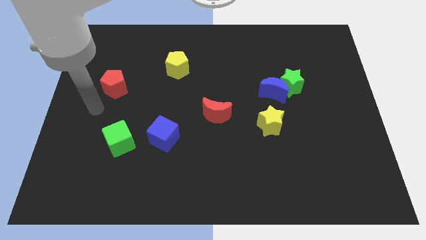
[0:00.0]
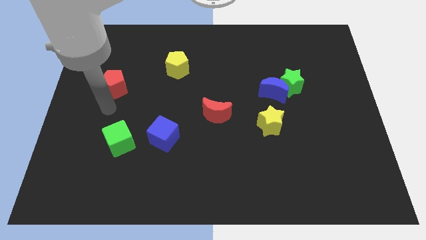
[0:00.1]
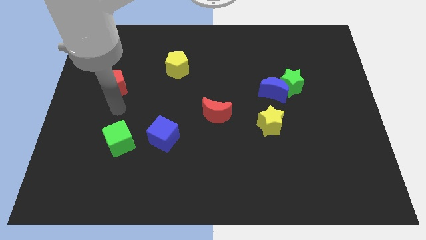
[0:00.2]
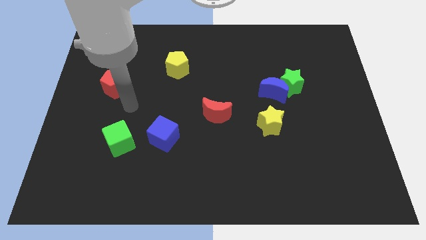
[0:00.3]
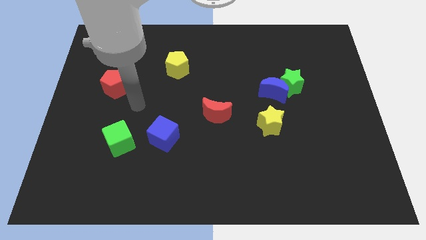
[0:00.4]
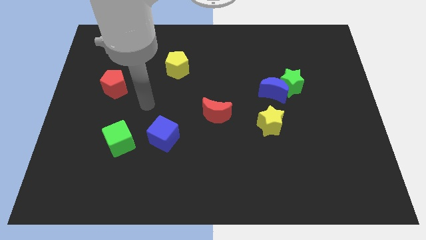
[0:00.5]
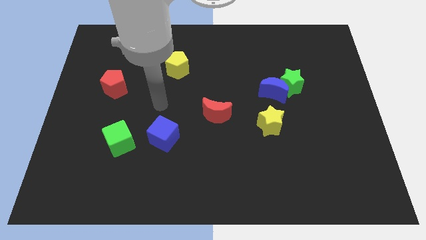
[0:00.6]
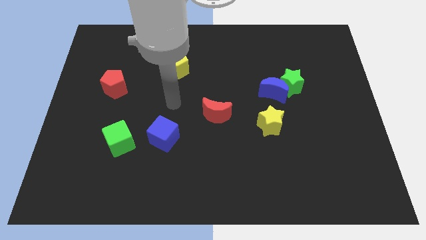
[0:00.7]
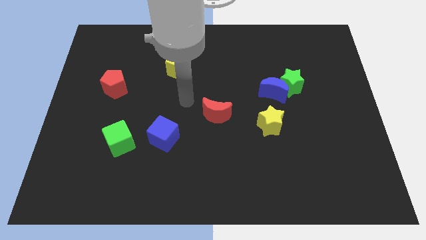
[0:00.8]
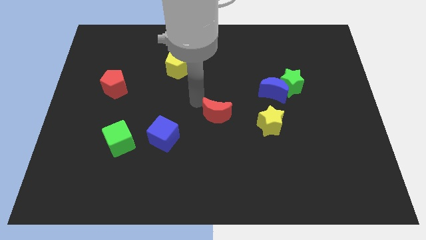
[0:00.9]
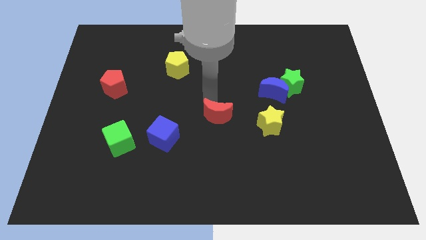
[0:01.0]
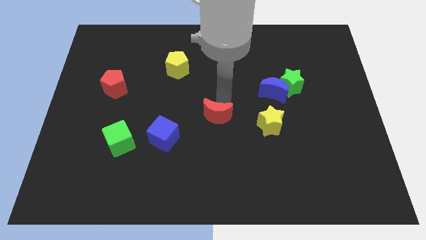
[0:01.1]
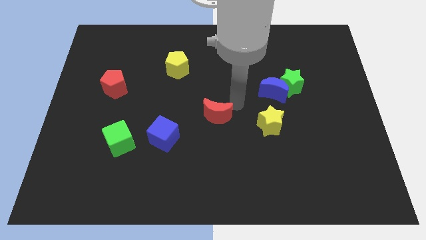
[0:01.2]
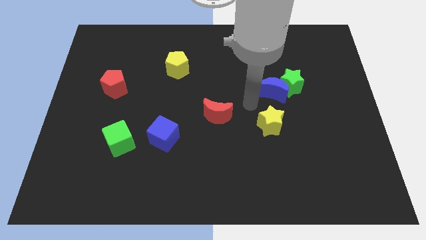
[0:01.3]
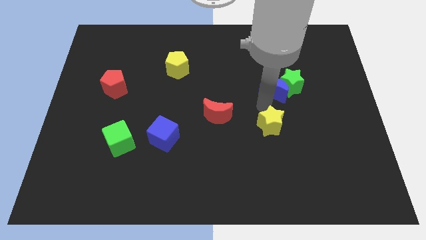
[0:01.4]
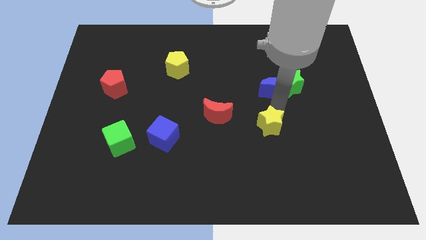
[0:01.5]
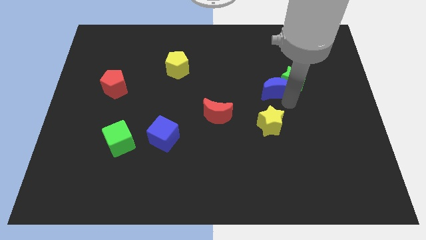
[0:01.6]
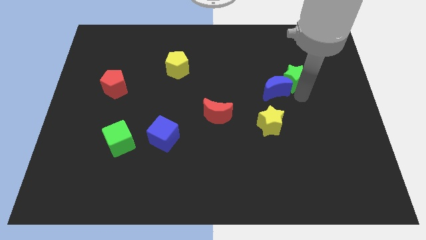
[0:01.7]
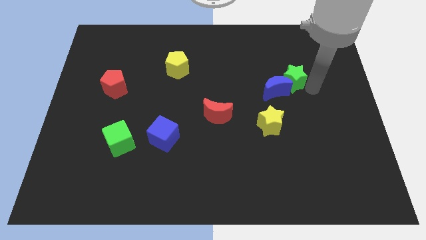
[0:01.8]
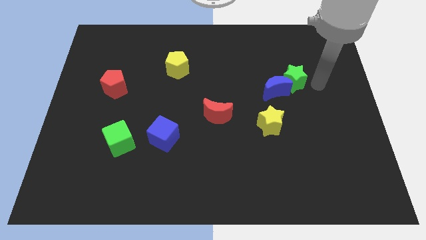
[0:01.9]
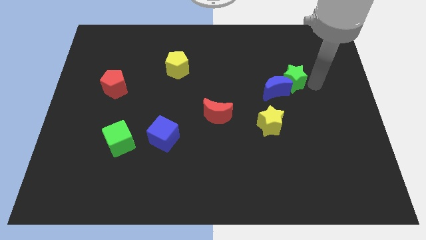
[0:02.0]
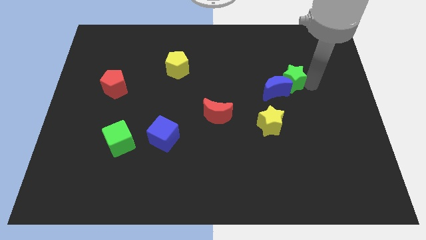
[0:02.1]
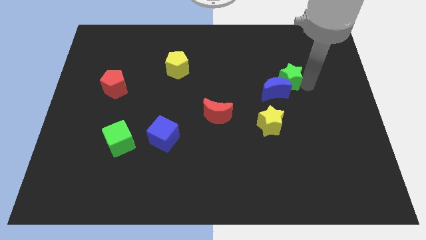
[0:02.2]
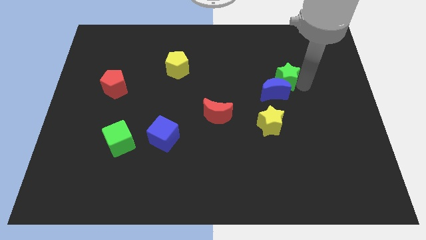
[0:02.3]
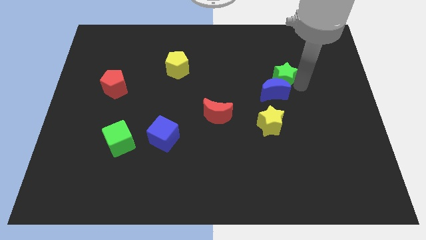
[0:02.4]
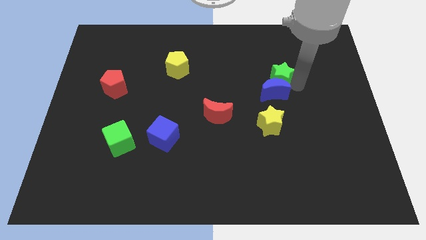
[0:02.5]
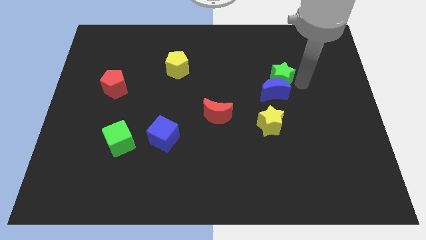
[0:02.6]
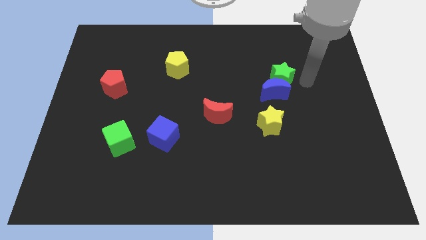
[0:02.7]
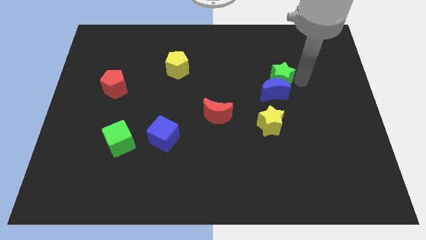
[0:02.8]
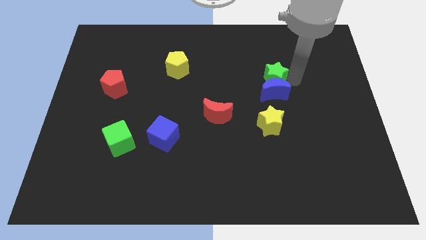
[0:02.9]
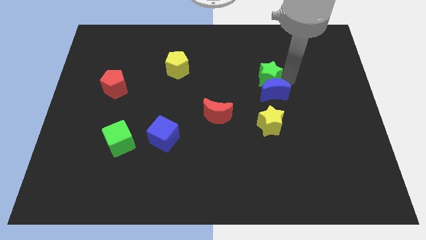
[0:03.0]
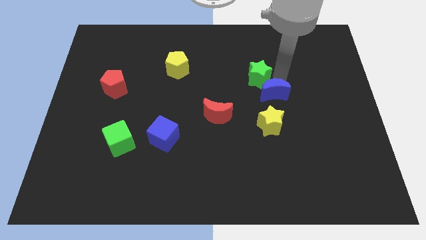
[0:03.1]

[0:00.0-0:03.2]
push the green star a bit to the left

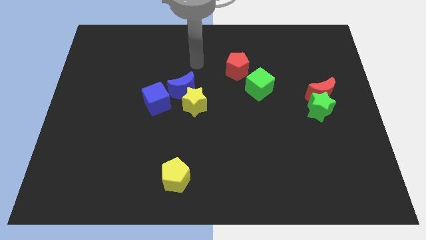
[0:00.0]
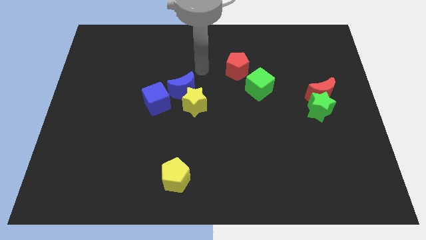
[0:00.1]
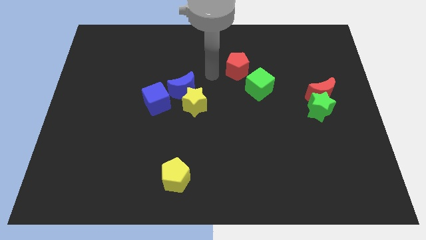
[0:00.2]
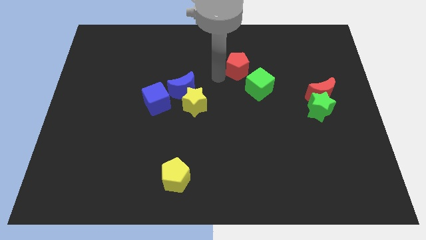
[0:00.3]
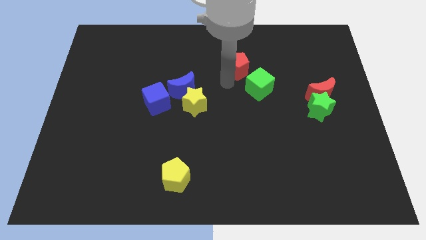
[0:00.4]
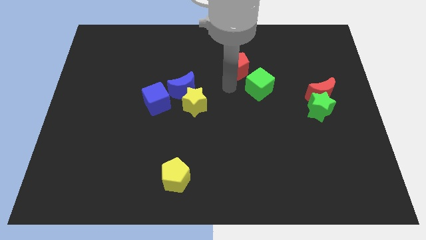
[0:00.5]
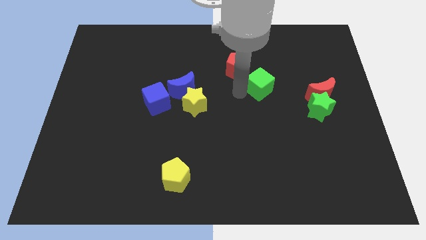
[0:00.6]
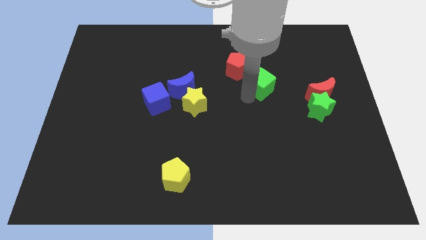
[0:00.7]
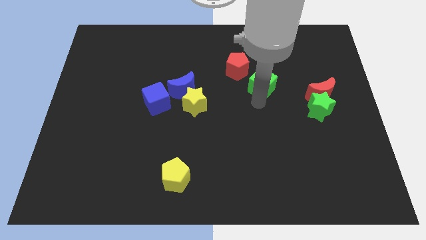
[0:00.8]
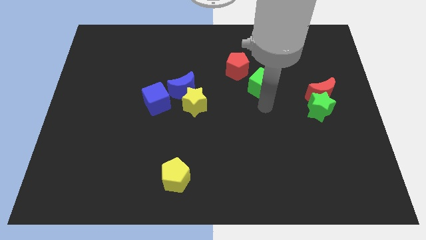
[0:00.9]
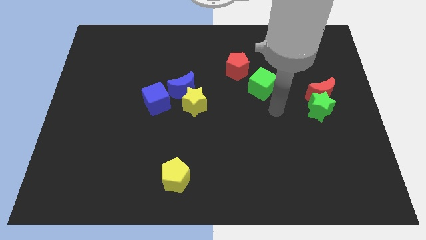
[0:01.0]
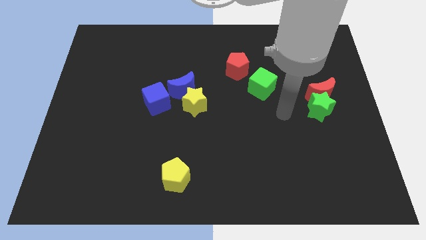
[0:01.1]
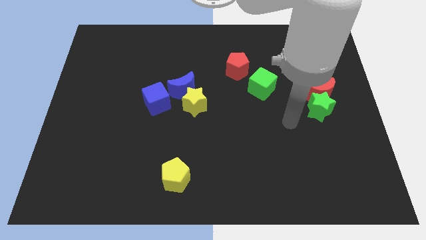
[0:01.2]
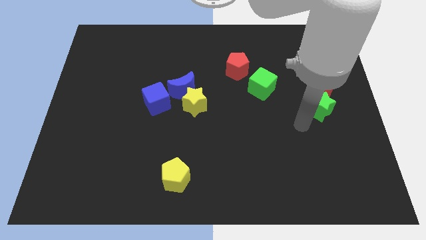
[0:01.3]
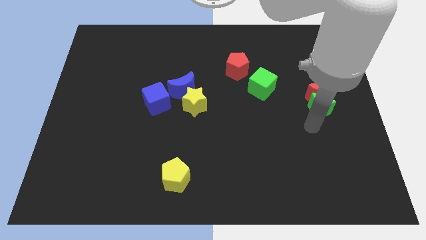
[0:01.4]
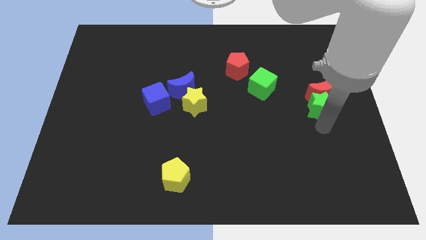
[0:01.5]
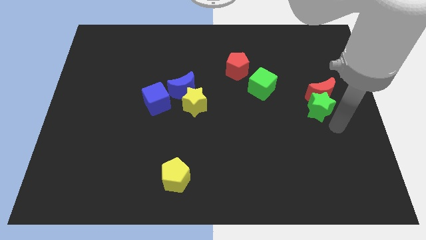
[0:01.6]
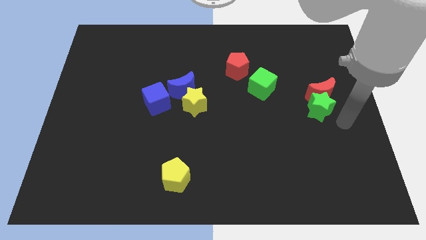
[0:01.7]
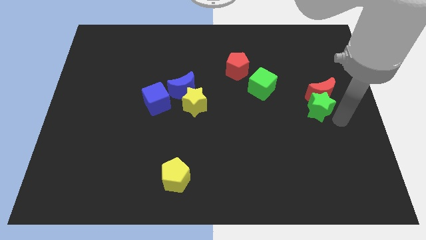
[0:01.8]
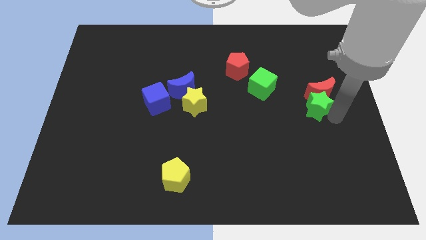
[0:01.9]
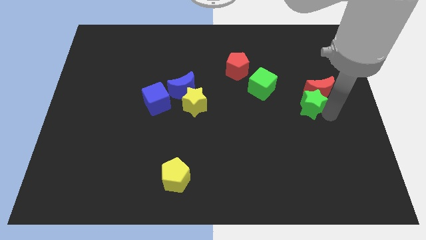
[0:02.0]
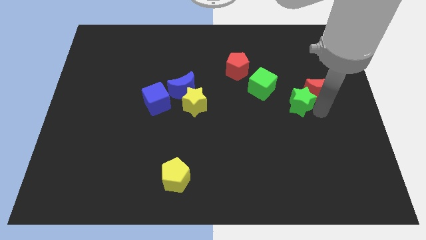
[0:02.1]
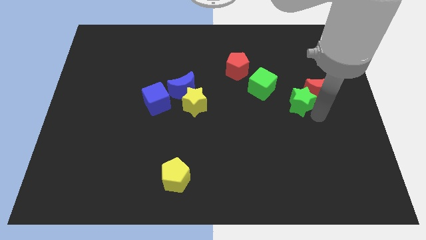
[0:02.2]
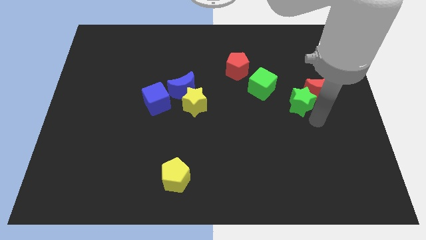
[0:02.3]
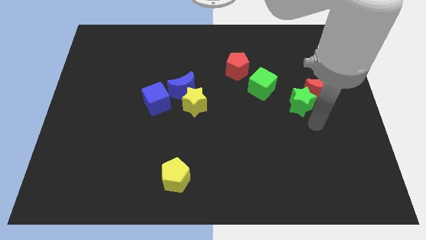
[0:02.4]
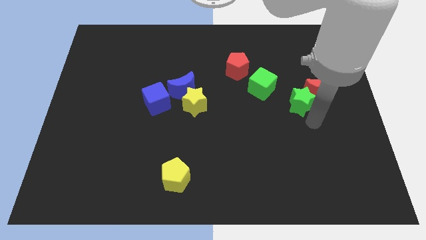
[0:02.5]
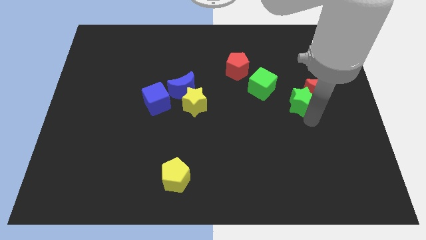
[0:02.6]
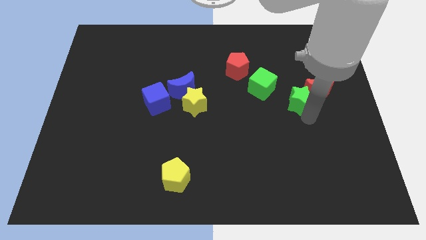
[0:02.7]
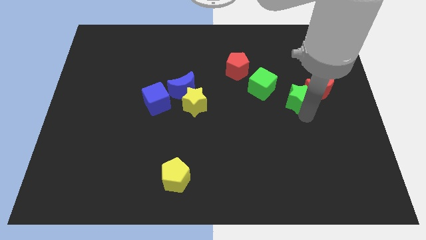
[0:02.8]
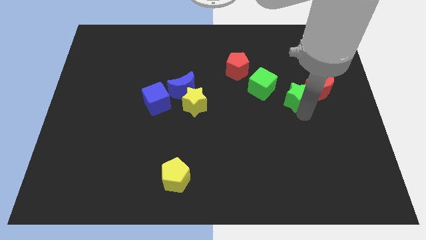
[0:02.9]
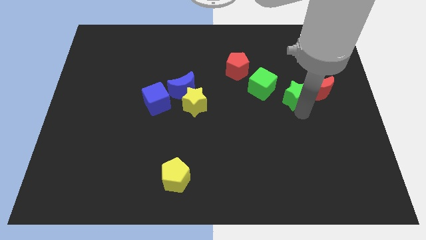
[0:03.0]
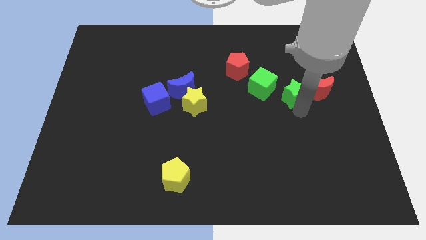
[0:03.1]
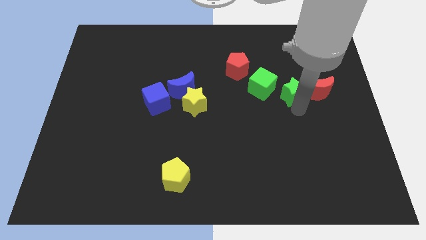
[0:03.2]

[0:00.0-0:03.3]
slightly push the green star up and to the left diagonally

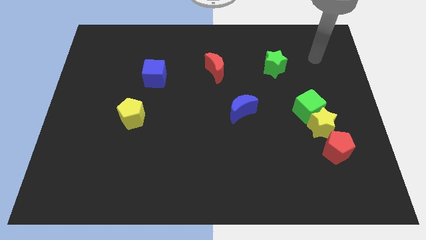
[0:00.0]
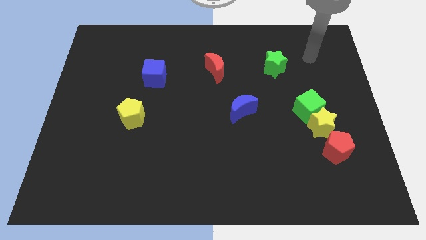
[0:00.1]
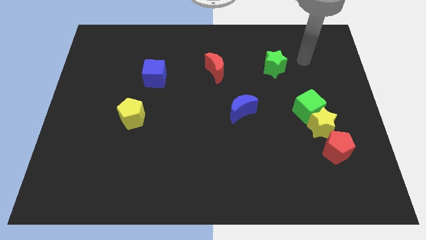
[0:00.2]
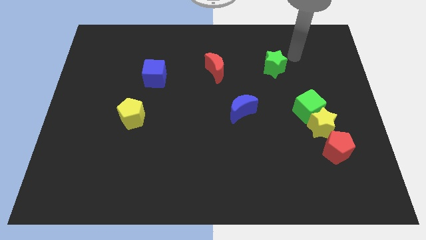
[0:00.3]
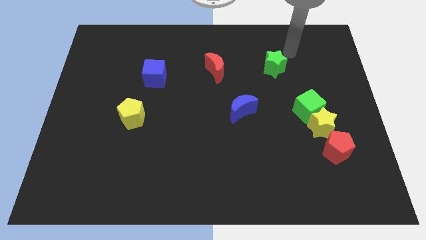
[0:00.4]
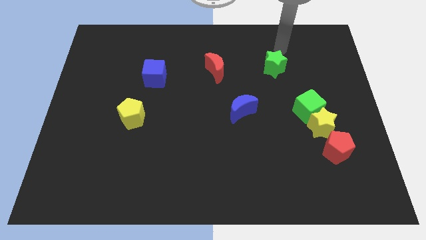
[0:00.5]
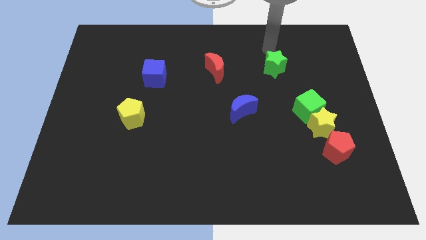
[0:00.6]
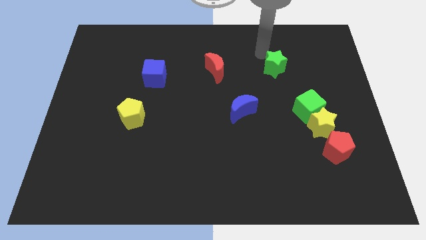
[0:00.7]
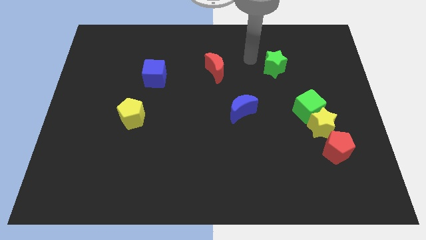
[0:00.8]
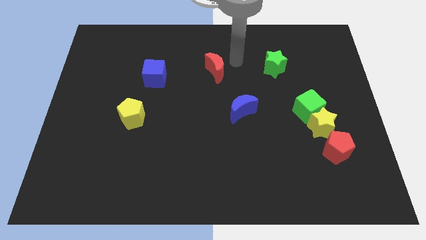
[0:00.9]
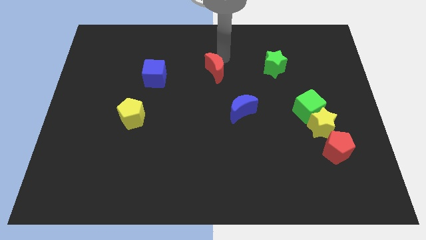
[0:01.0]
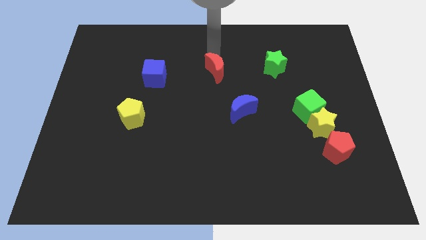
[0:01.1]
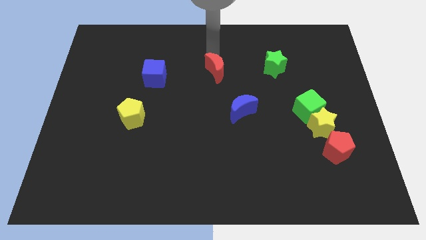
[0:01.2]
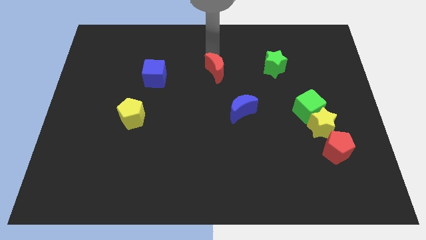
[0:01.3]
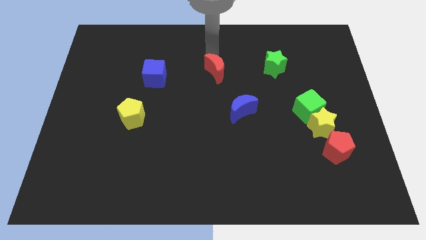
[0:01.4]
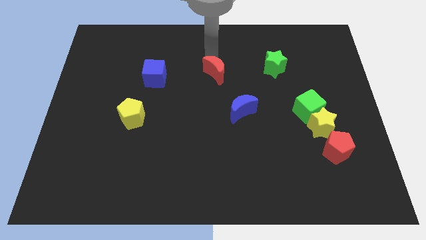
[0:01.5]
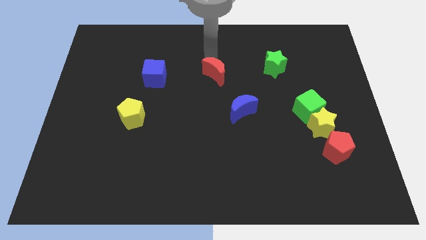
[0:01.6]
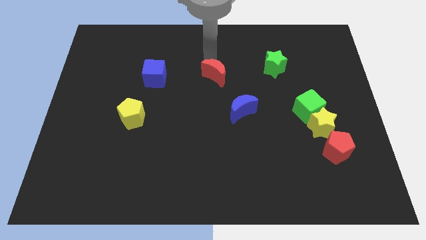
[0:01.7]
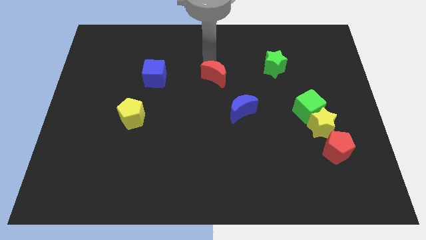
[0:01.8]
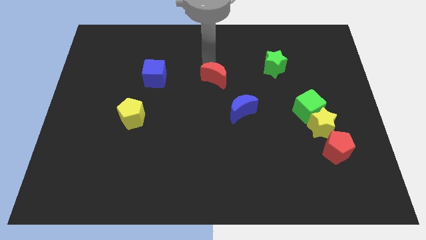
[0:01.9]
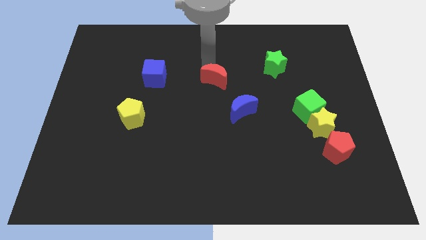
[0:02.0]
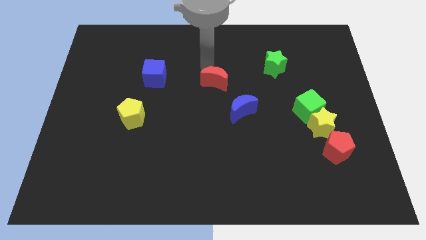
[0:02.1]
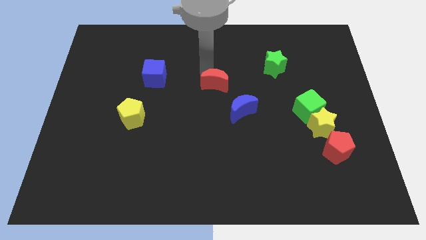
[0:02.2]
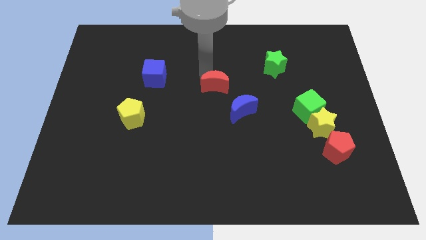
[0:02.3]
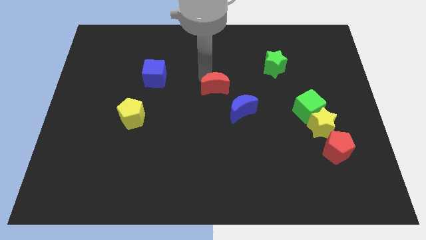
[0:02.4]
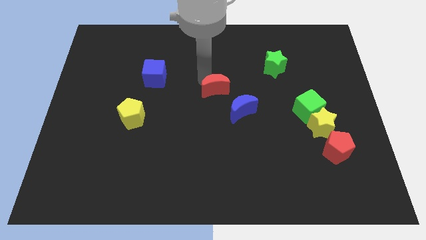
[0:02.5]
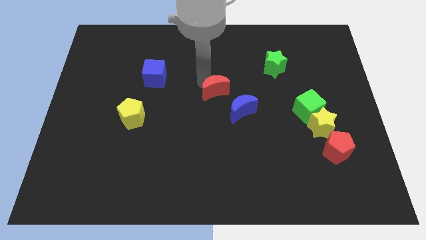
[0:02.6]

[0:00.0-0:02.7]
slightly push the red moon down
